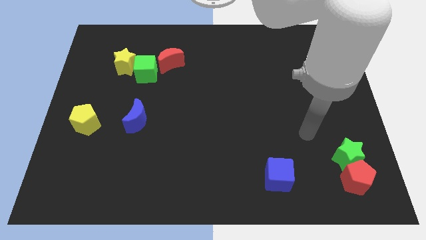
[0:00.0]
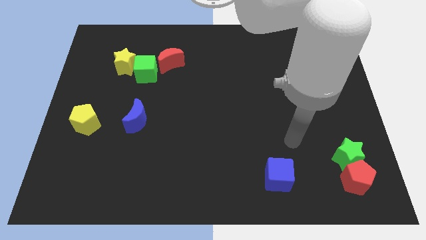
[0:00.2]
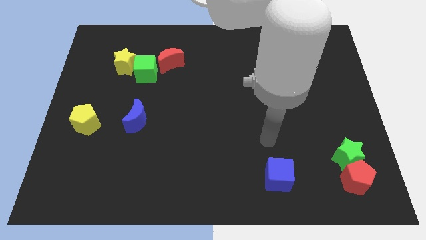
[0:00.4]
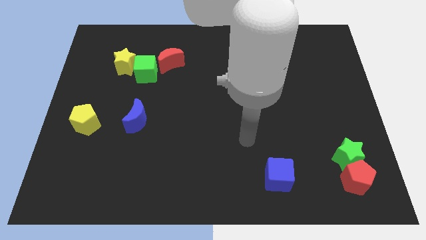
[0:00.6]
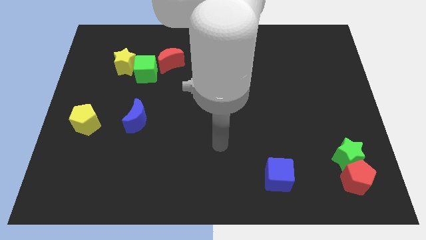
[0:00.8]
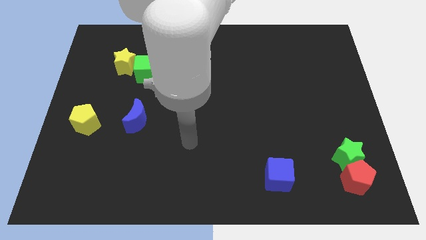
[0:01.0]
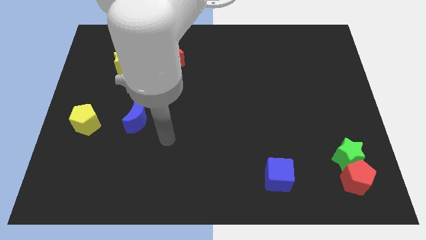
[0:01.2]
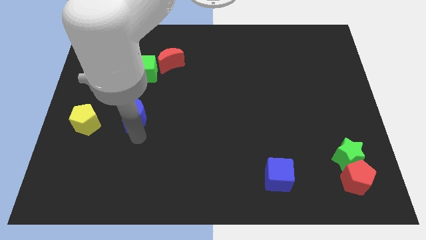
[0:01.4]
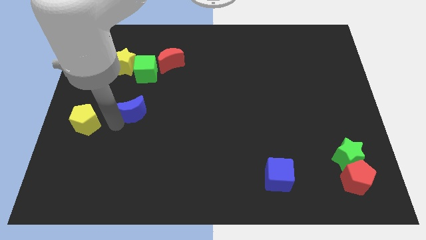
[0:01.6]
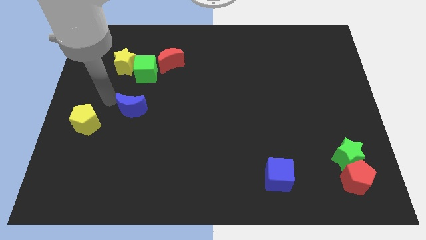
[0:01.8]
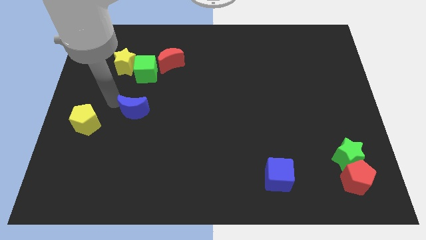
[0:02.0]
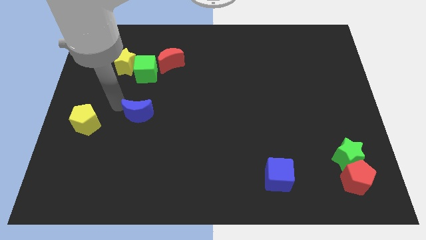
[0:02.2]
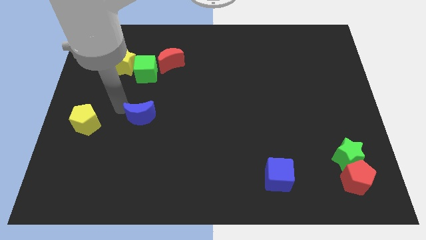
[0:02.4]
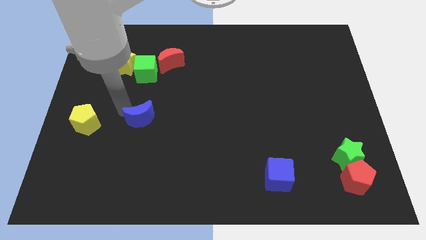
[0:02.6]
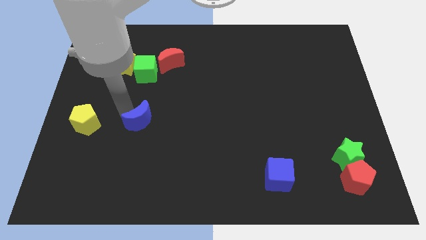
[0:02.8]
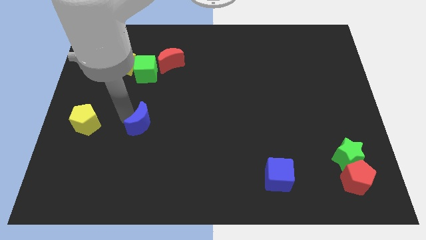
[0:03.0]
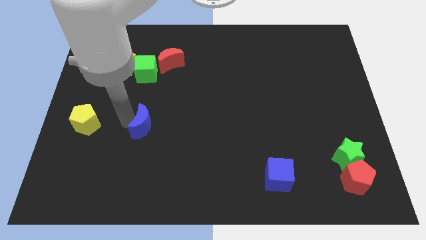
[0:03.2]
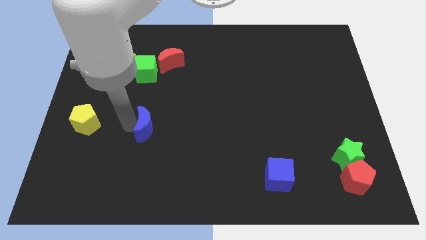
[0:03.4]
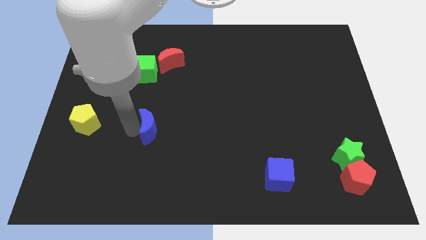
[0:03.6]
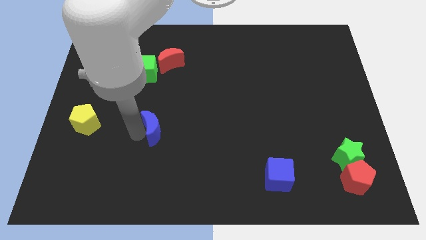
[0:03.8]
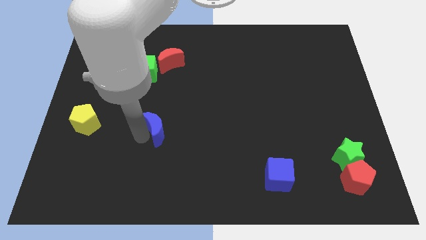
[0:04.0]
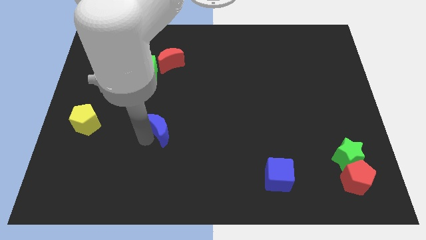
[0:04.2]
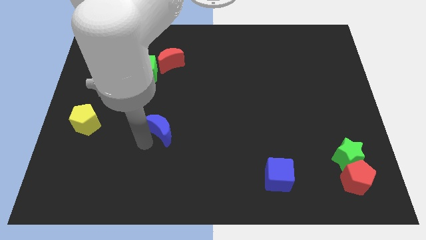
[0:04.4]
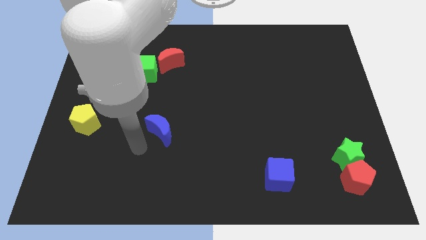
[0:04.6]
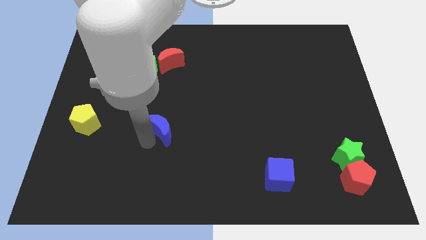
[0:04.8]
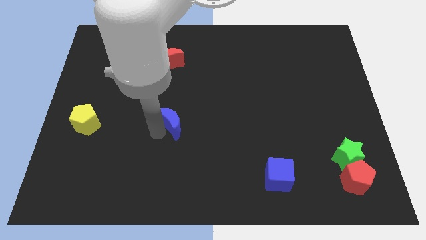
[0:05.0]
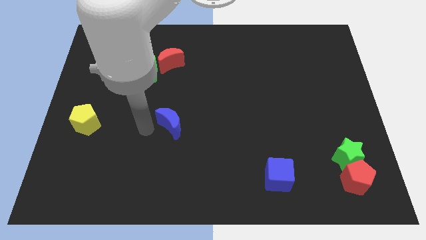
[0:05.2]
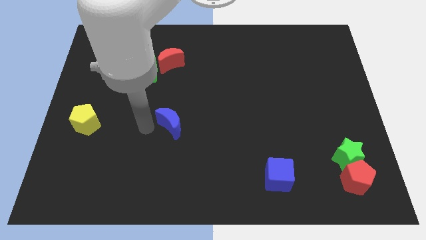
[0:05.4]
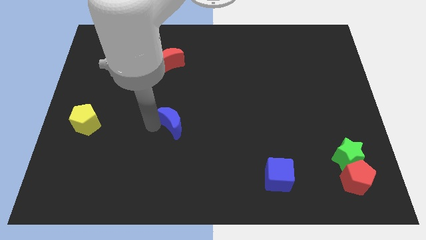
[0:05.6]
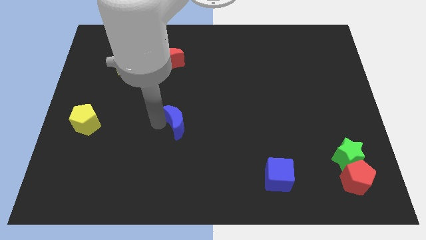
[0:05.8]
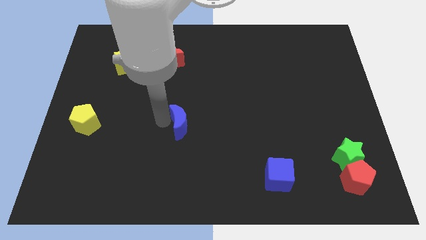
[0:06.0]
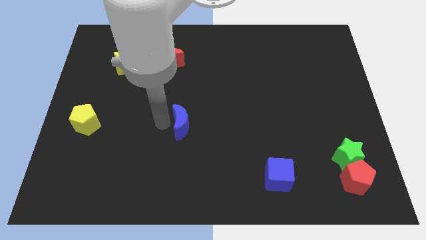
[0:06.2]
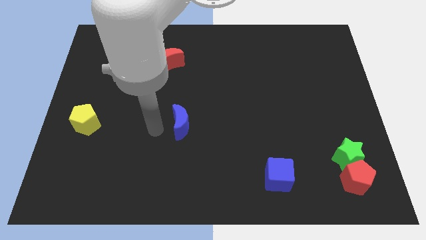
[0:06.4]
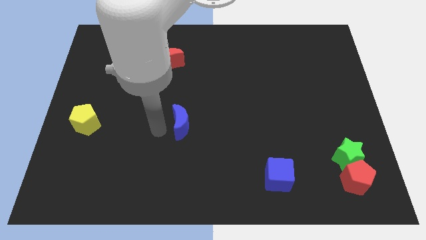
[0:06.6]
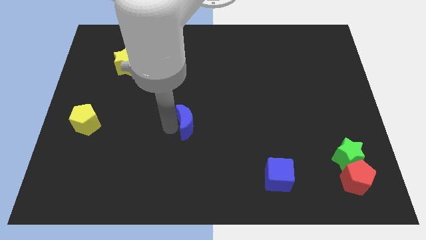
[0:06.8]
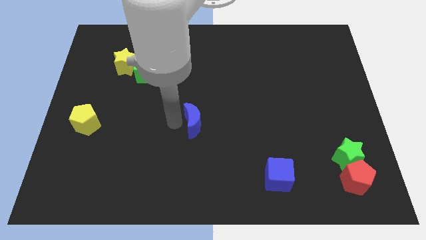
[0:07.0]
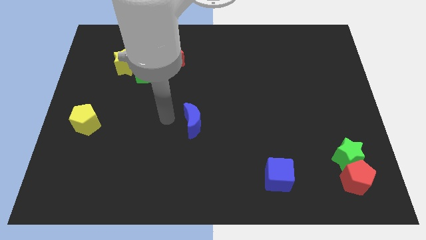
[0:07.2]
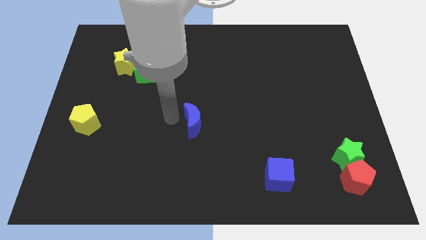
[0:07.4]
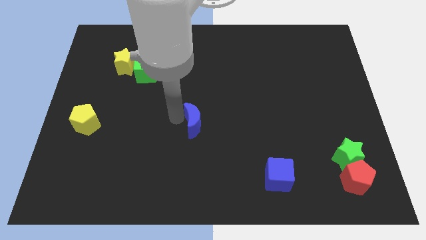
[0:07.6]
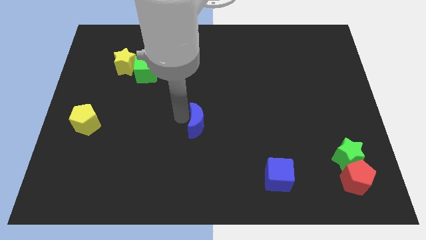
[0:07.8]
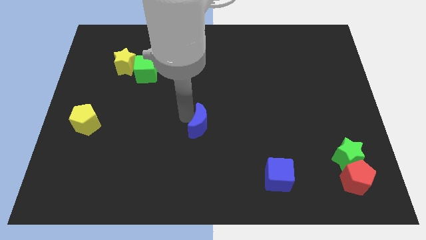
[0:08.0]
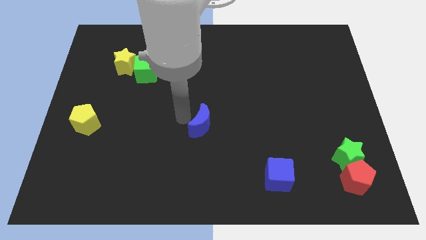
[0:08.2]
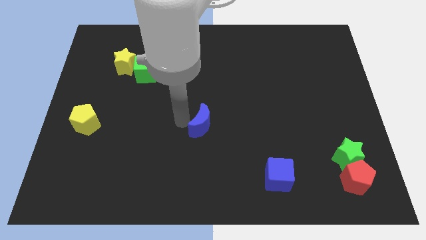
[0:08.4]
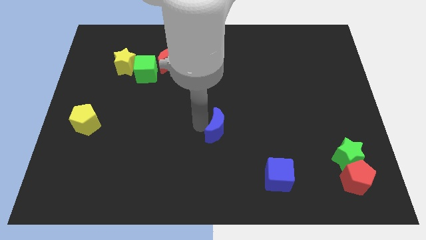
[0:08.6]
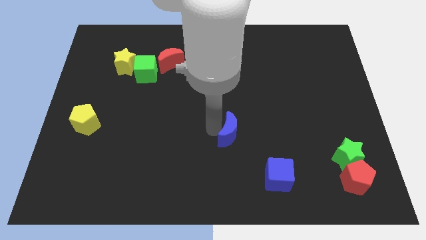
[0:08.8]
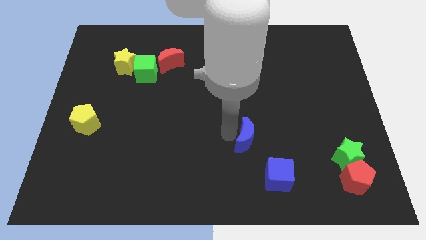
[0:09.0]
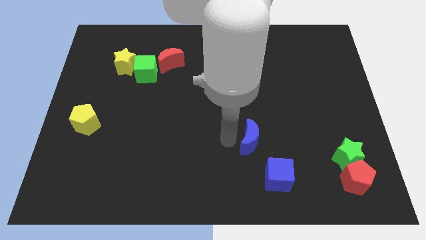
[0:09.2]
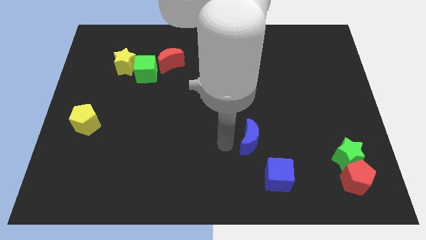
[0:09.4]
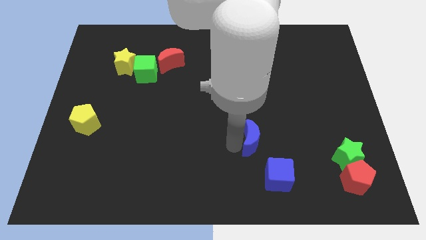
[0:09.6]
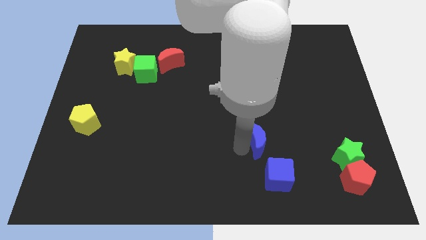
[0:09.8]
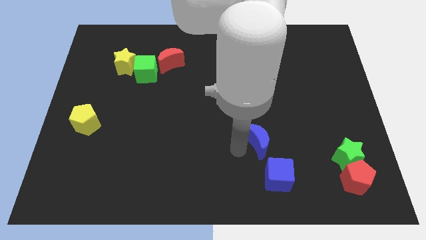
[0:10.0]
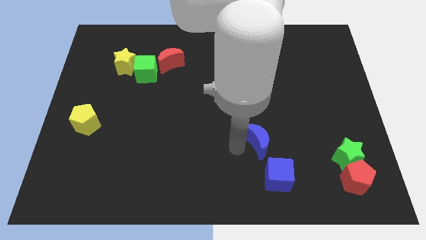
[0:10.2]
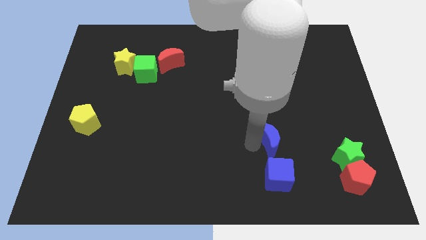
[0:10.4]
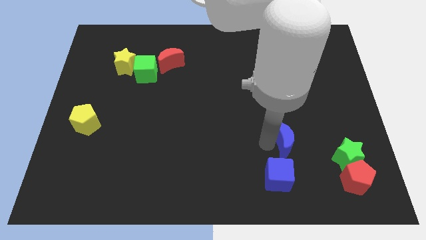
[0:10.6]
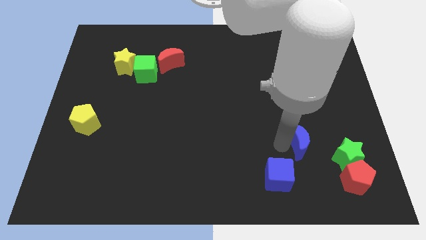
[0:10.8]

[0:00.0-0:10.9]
put the blue moon diagonally up and to the left of the green star
